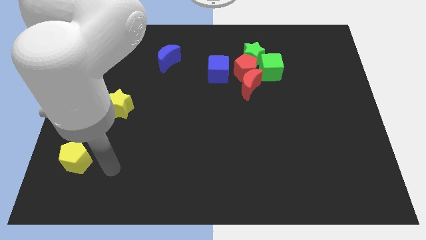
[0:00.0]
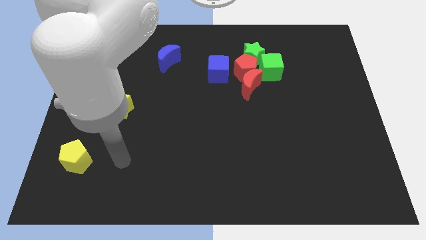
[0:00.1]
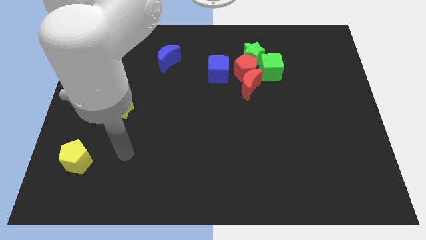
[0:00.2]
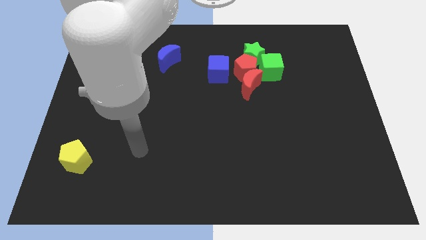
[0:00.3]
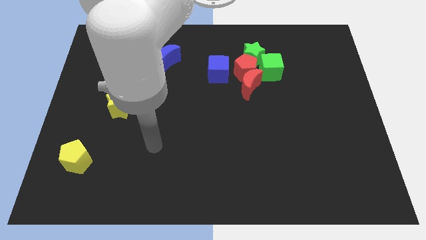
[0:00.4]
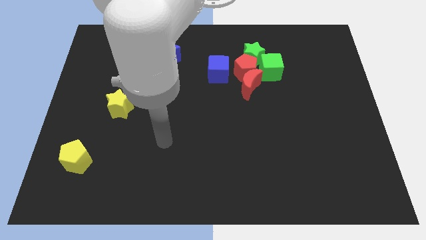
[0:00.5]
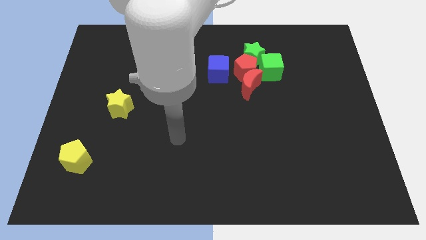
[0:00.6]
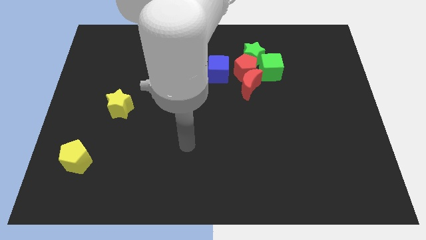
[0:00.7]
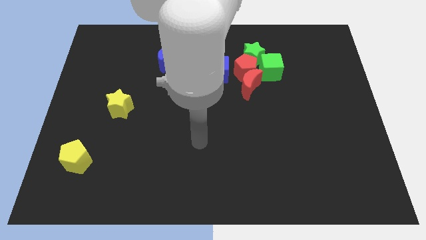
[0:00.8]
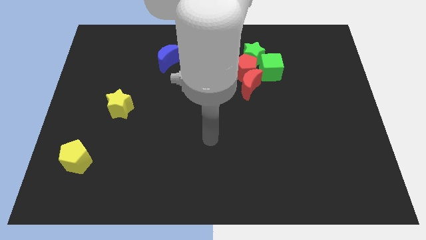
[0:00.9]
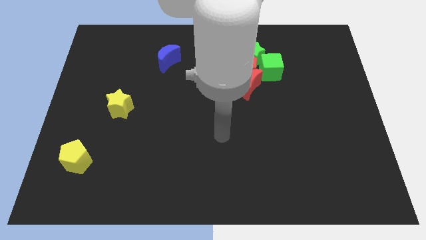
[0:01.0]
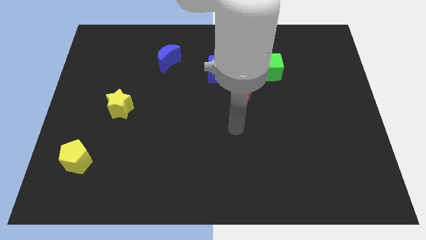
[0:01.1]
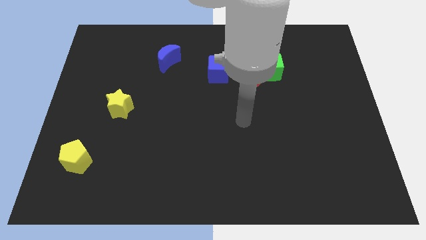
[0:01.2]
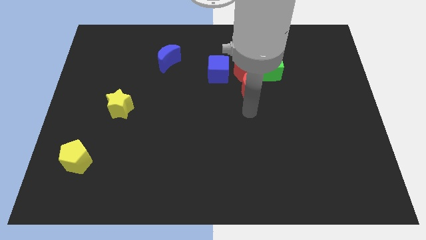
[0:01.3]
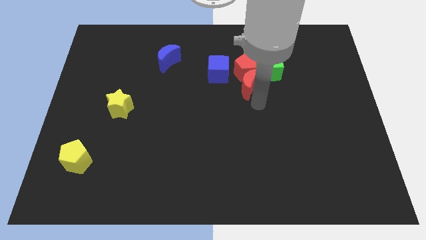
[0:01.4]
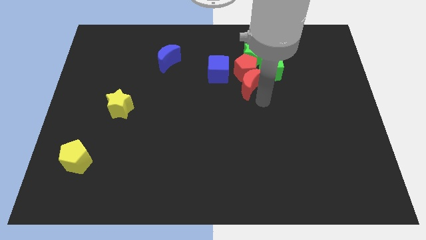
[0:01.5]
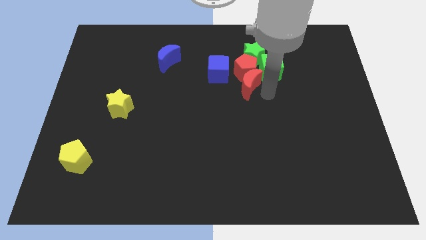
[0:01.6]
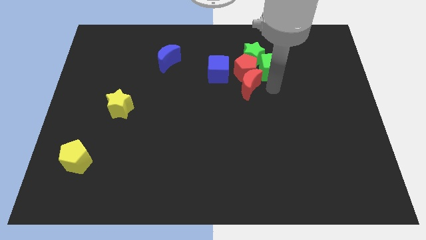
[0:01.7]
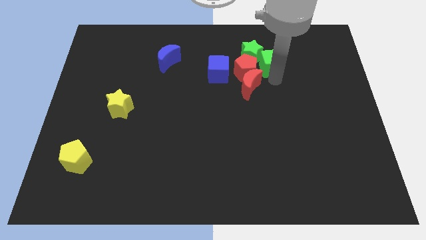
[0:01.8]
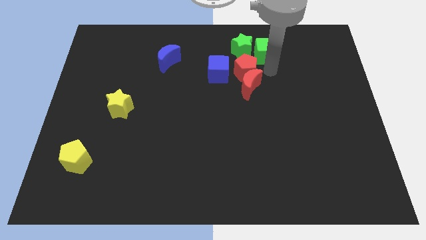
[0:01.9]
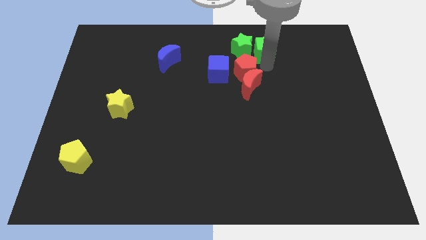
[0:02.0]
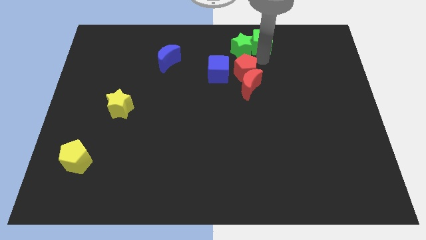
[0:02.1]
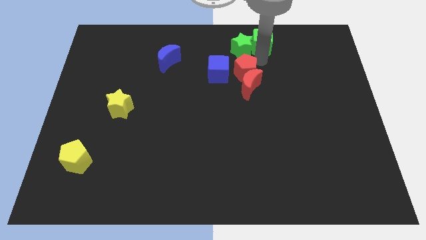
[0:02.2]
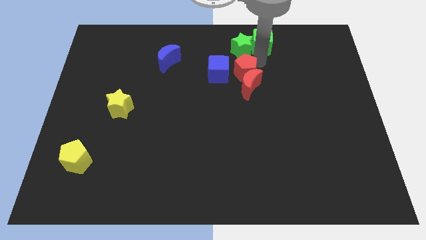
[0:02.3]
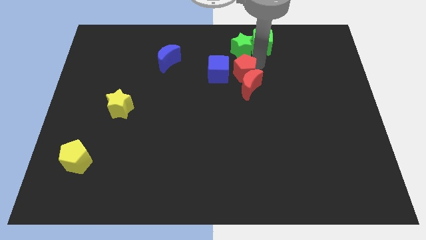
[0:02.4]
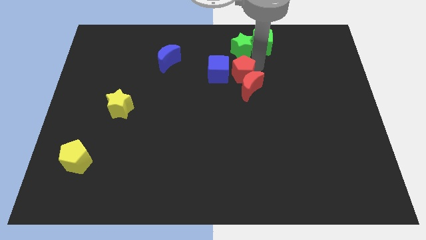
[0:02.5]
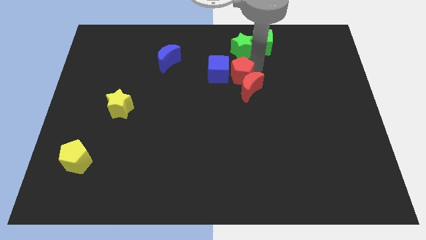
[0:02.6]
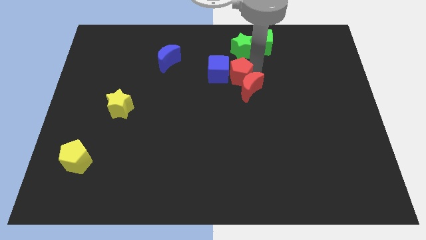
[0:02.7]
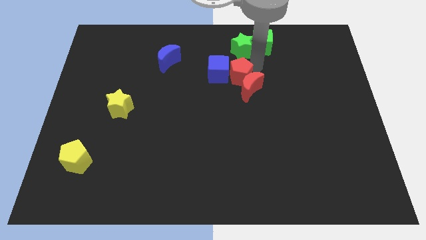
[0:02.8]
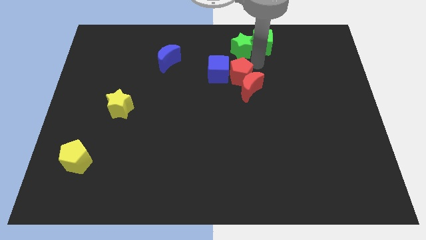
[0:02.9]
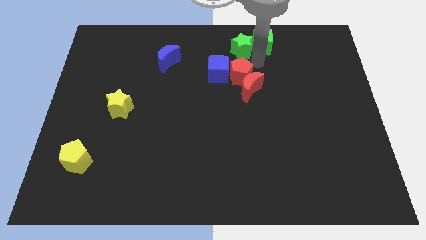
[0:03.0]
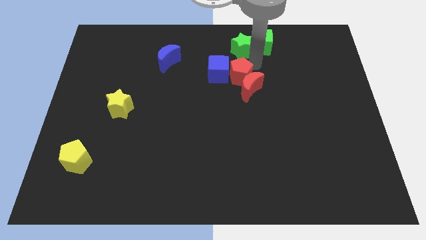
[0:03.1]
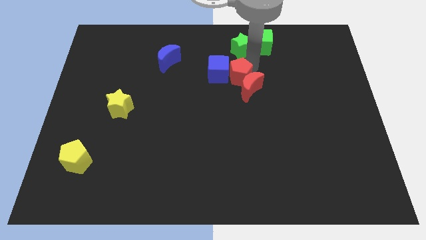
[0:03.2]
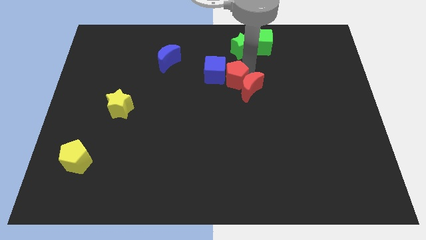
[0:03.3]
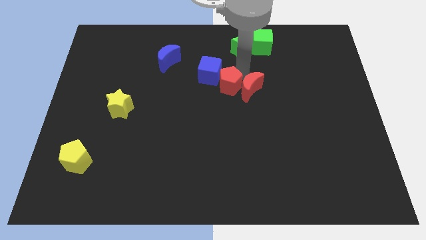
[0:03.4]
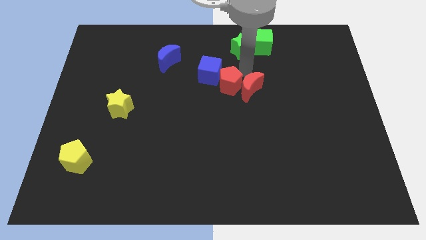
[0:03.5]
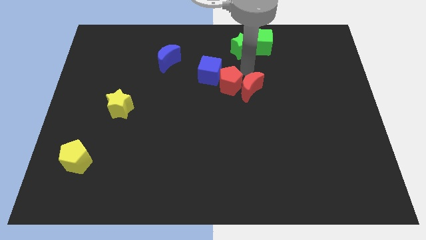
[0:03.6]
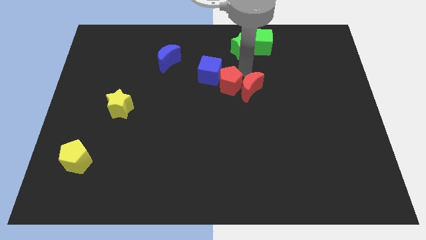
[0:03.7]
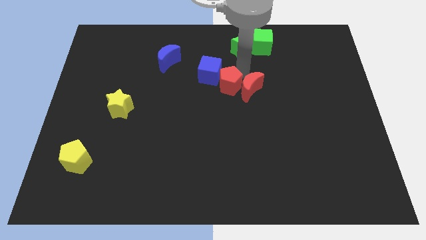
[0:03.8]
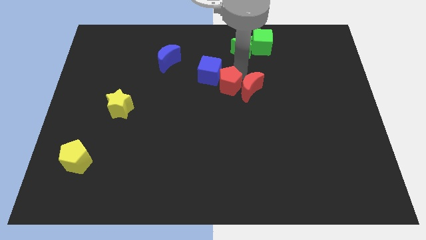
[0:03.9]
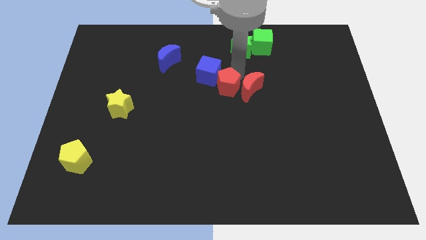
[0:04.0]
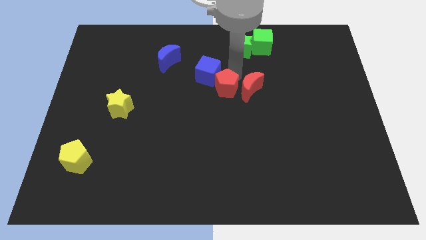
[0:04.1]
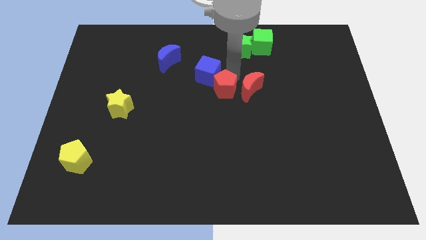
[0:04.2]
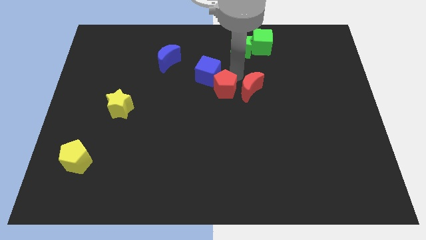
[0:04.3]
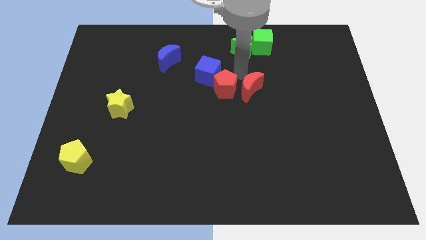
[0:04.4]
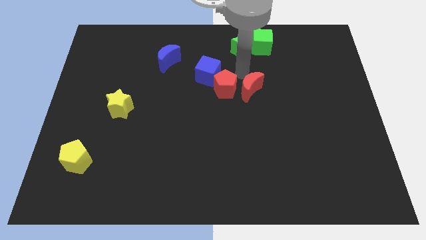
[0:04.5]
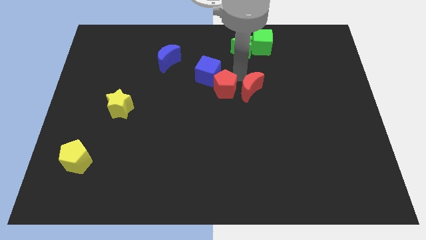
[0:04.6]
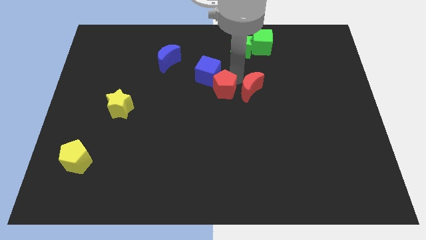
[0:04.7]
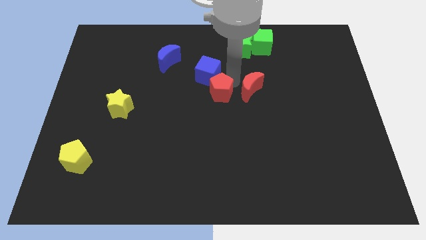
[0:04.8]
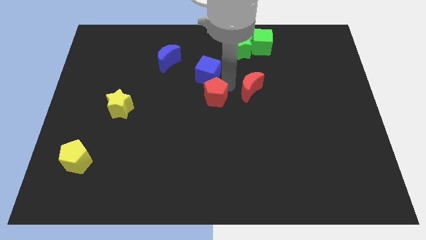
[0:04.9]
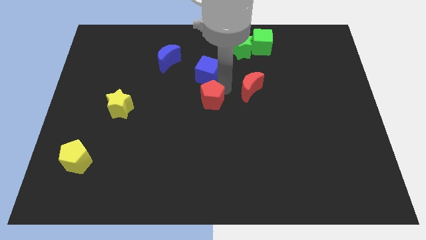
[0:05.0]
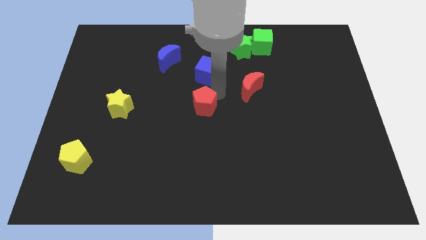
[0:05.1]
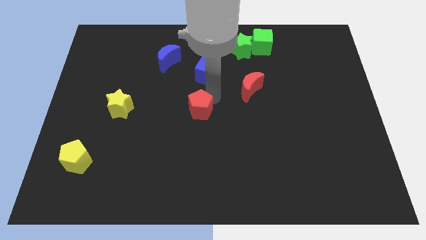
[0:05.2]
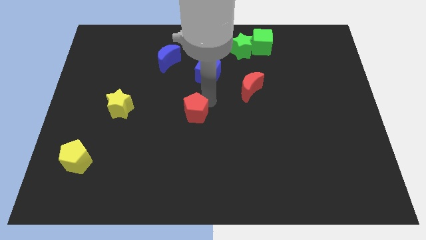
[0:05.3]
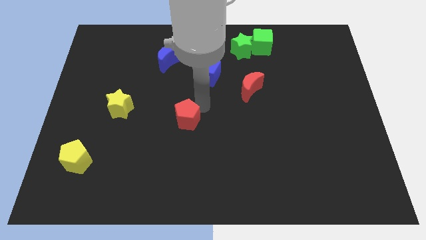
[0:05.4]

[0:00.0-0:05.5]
move the red pentagon down and to the left

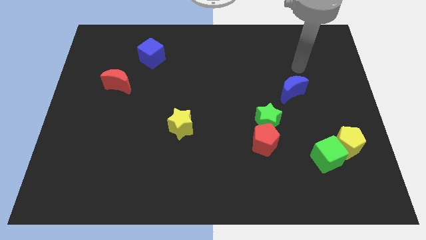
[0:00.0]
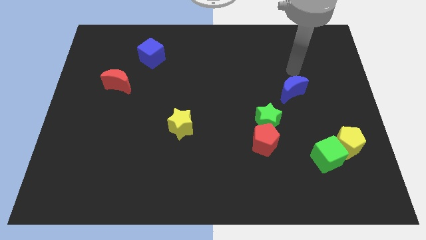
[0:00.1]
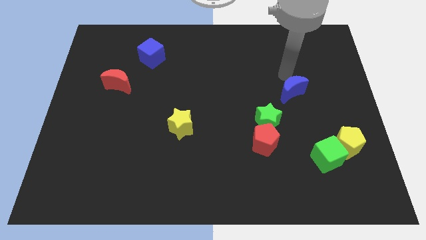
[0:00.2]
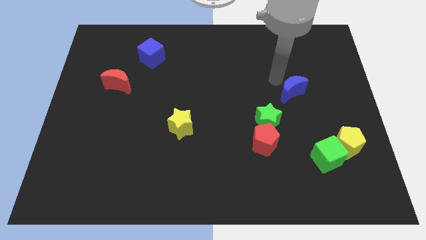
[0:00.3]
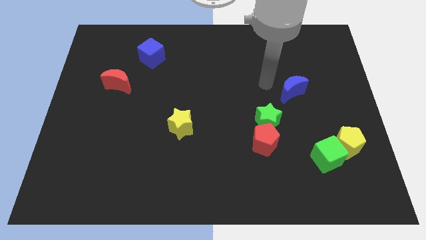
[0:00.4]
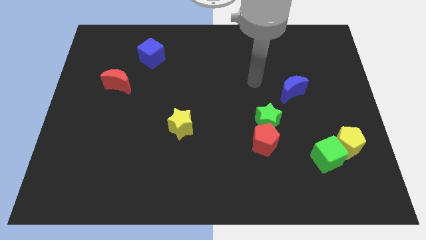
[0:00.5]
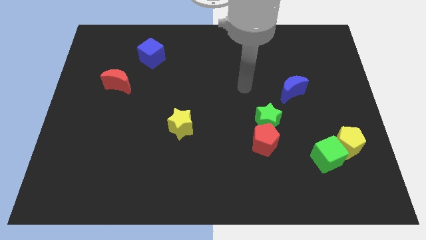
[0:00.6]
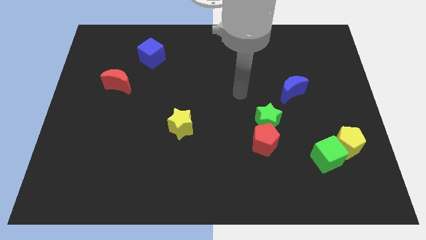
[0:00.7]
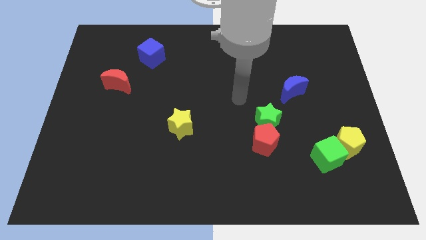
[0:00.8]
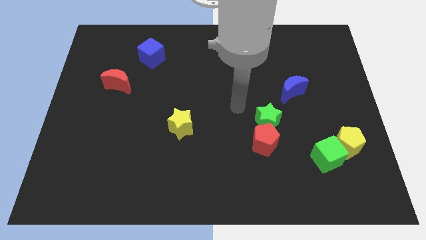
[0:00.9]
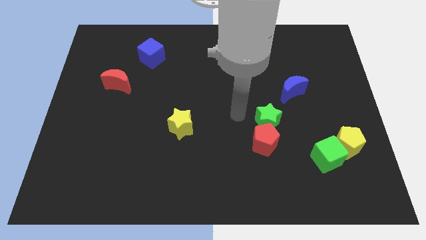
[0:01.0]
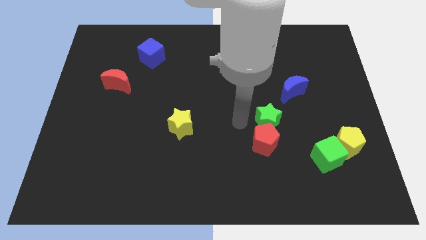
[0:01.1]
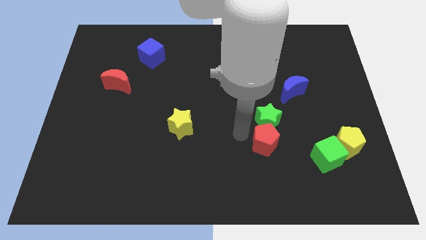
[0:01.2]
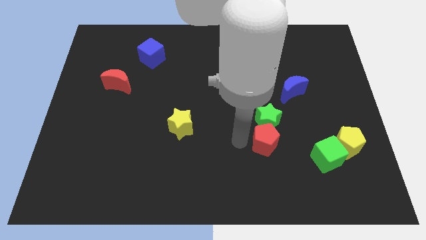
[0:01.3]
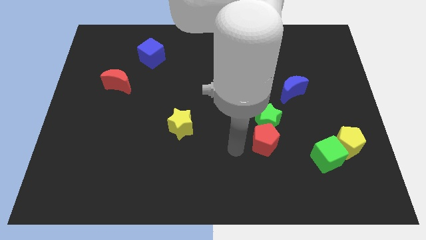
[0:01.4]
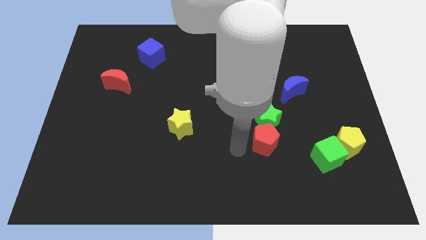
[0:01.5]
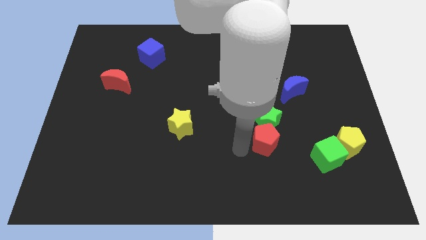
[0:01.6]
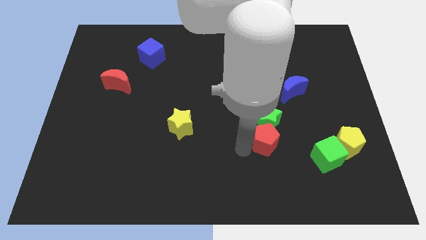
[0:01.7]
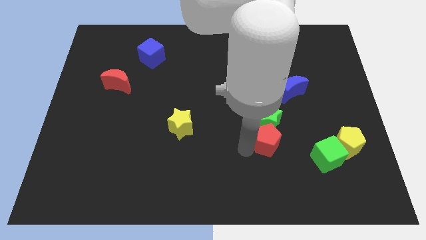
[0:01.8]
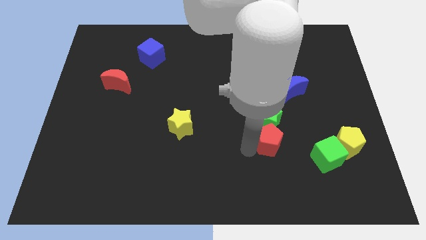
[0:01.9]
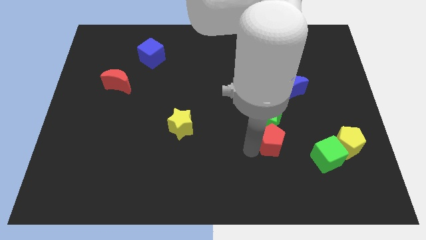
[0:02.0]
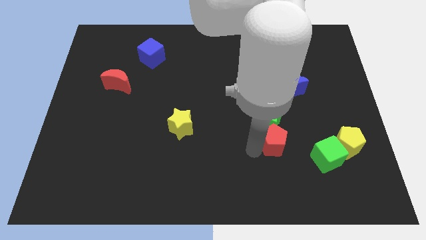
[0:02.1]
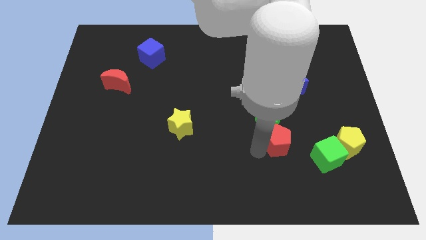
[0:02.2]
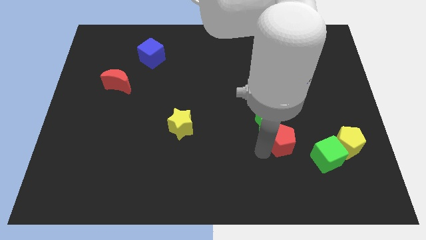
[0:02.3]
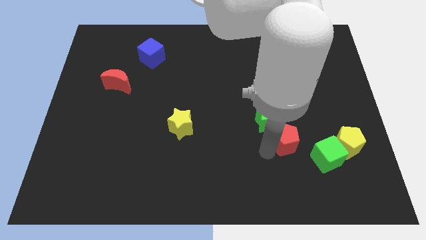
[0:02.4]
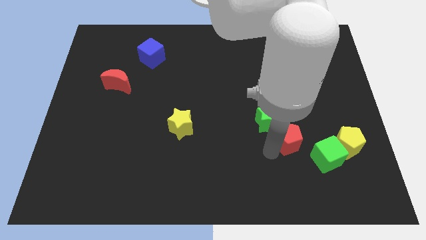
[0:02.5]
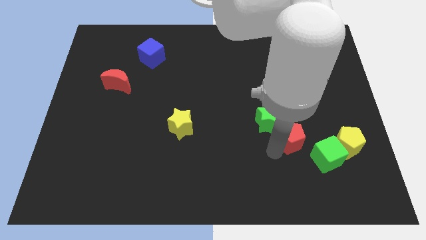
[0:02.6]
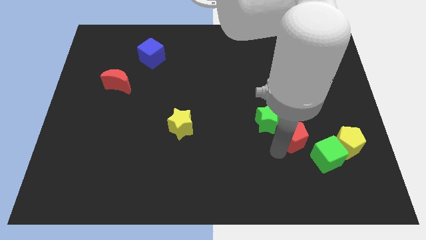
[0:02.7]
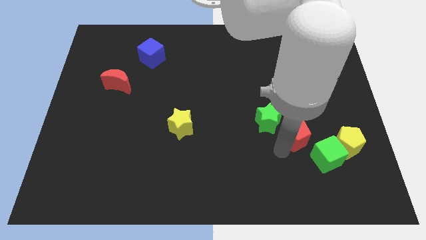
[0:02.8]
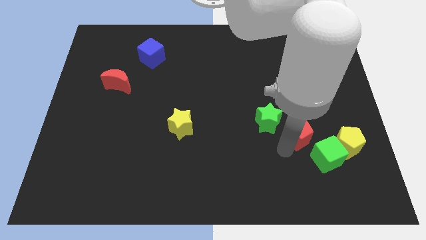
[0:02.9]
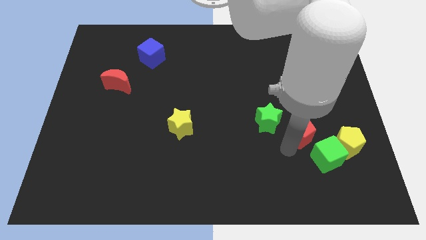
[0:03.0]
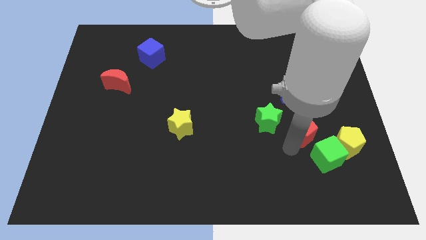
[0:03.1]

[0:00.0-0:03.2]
slide the red pentagon a bit up and to the right diagonally
